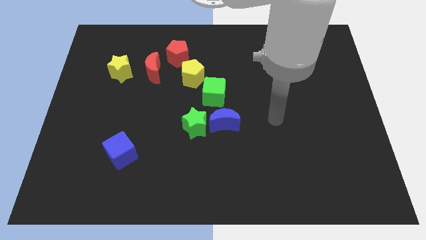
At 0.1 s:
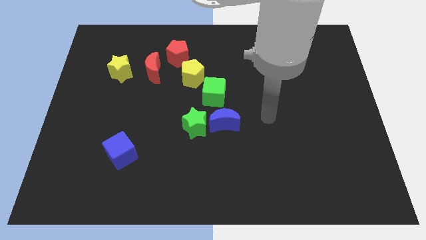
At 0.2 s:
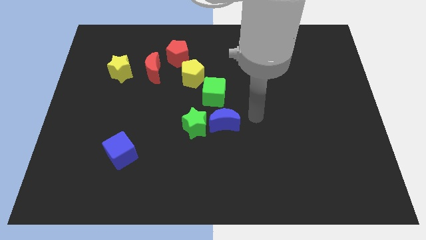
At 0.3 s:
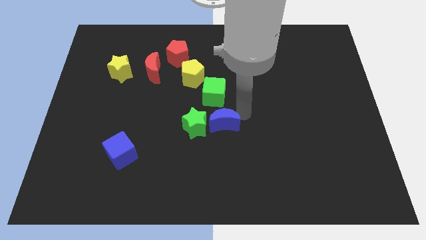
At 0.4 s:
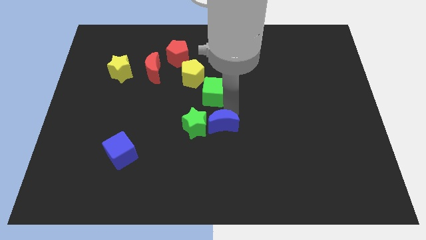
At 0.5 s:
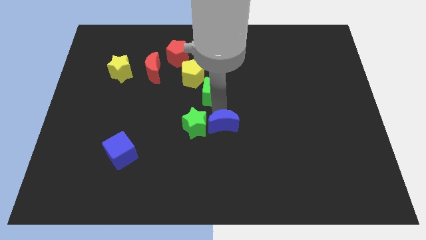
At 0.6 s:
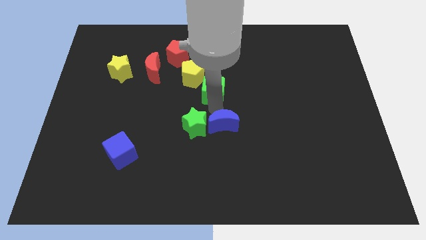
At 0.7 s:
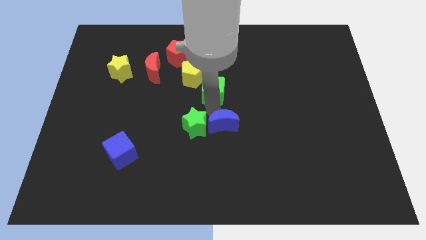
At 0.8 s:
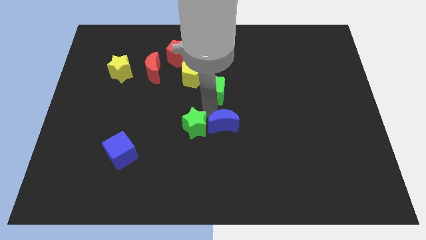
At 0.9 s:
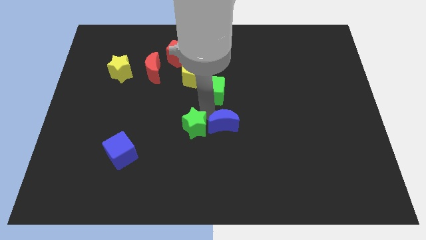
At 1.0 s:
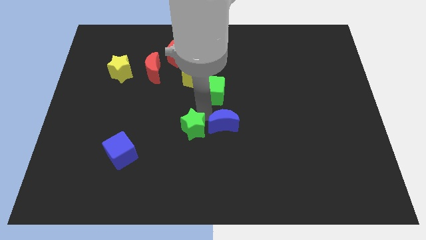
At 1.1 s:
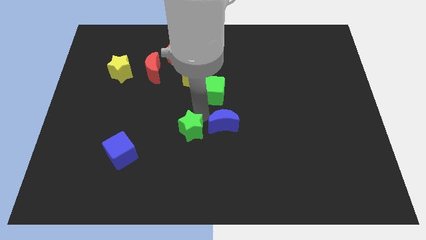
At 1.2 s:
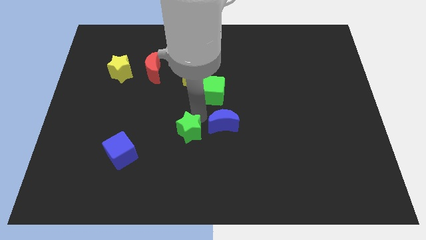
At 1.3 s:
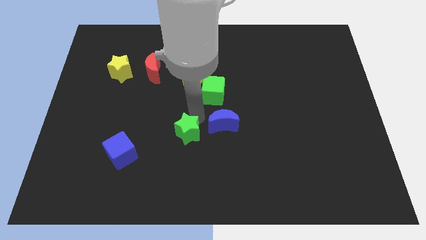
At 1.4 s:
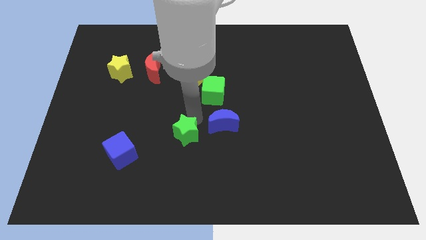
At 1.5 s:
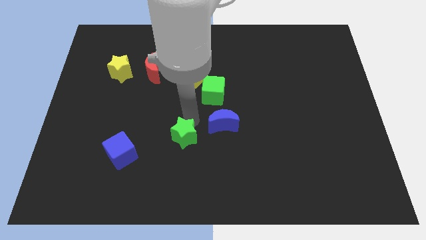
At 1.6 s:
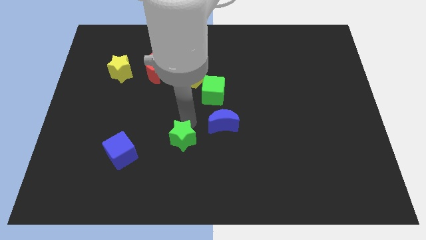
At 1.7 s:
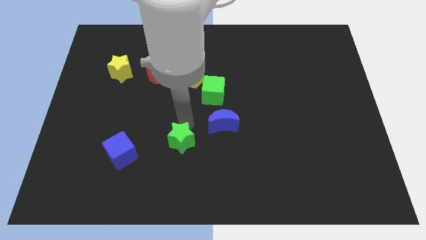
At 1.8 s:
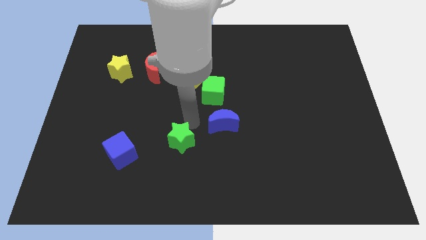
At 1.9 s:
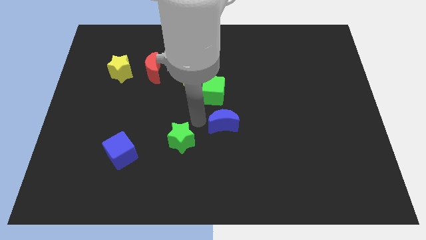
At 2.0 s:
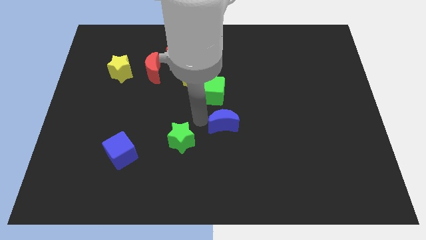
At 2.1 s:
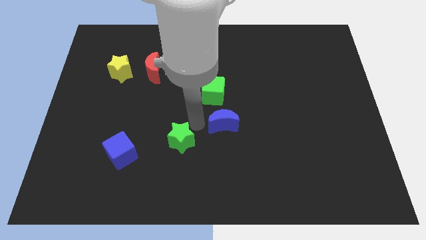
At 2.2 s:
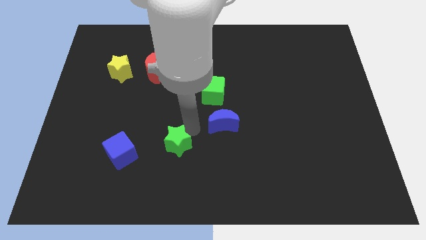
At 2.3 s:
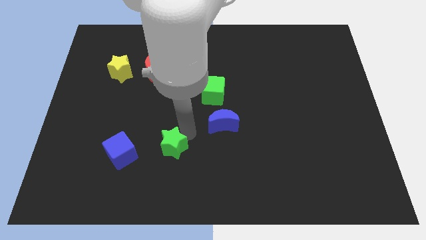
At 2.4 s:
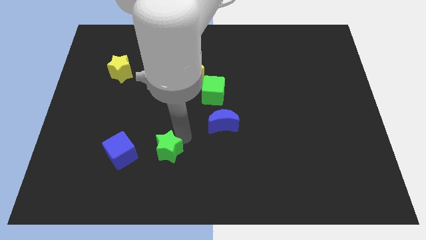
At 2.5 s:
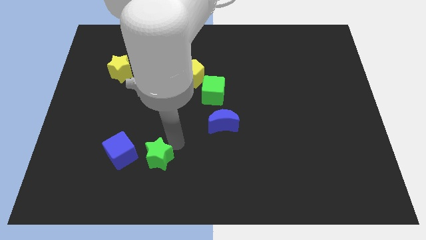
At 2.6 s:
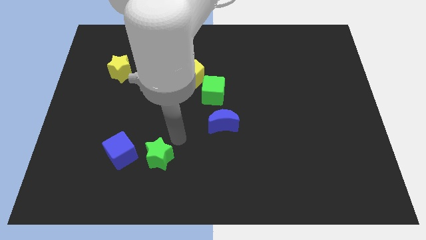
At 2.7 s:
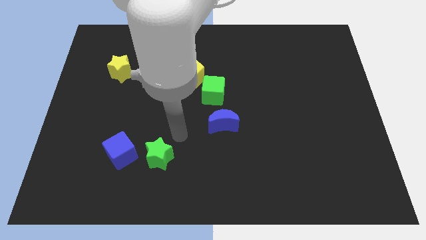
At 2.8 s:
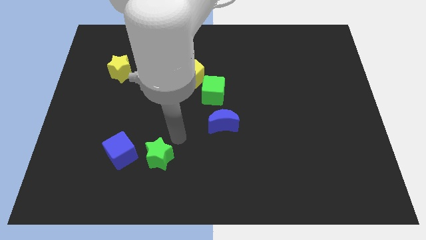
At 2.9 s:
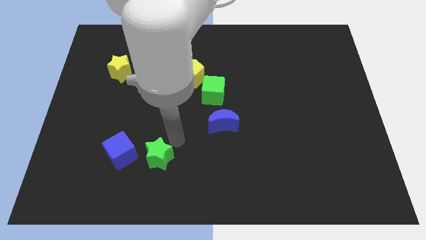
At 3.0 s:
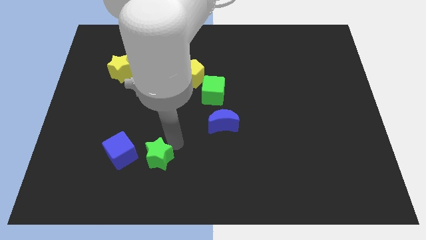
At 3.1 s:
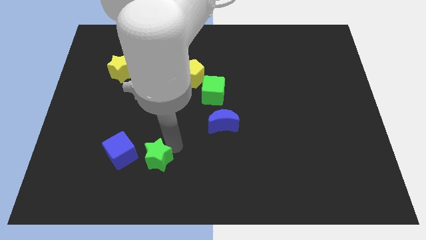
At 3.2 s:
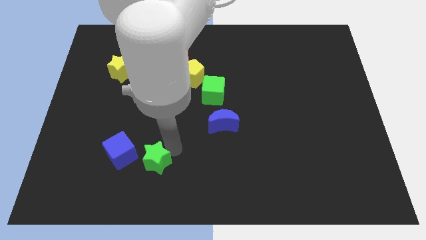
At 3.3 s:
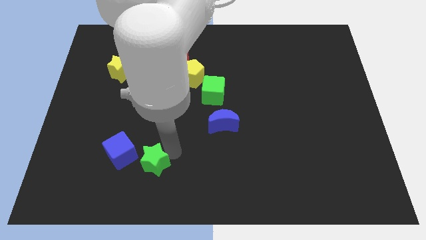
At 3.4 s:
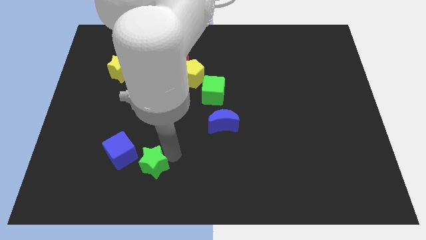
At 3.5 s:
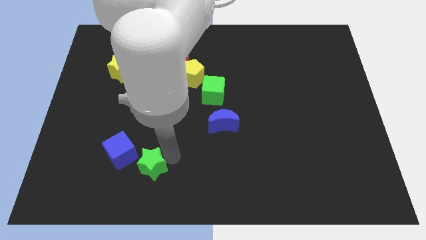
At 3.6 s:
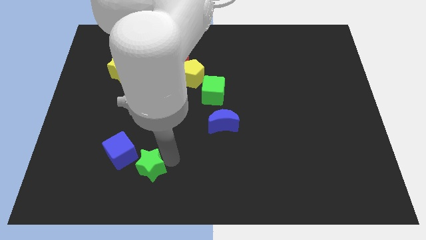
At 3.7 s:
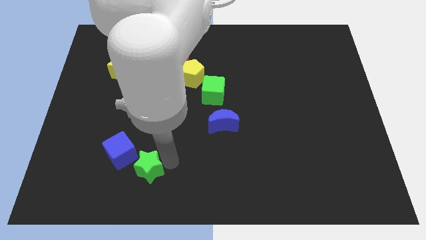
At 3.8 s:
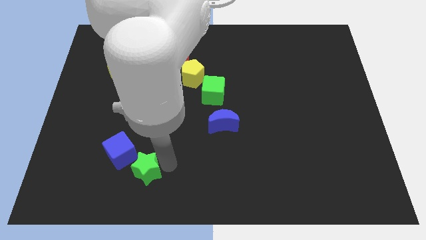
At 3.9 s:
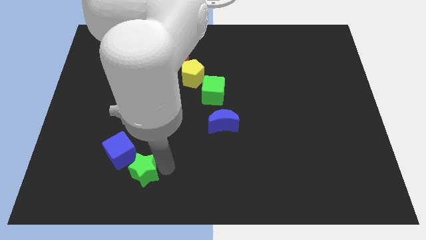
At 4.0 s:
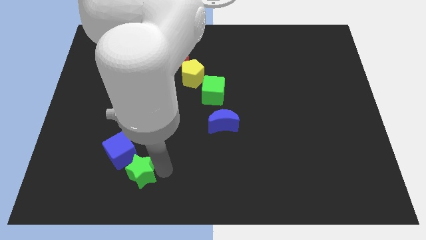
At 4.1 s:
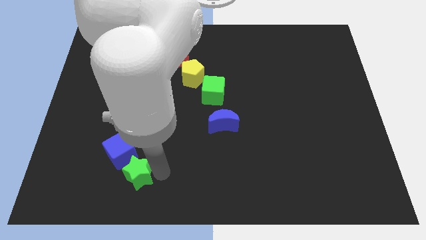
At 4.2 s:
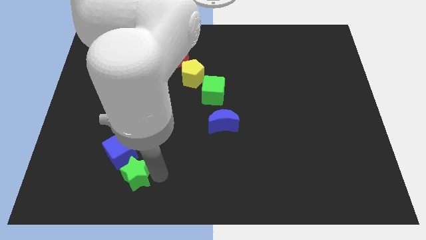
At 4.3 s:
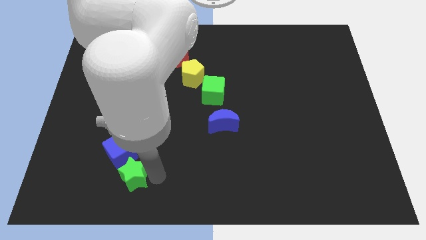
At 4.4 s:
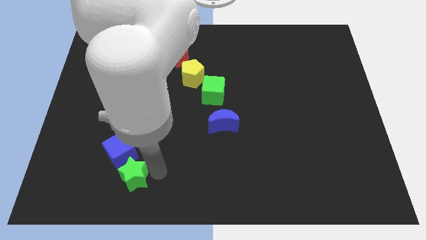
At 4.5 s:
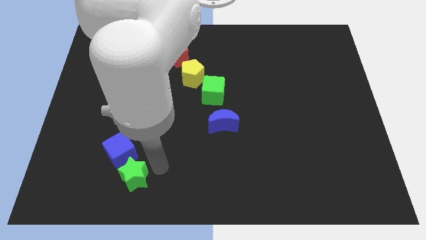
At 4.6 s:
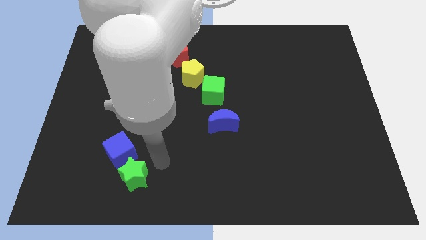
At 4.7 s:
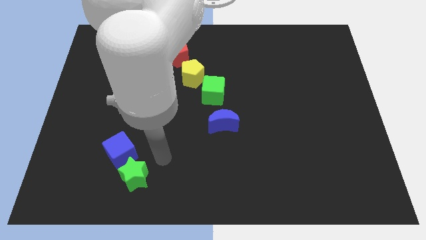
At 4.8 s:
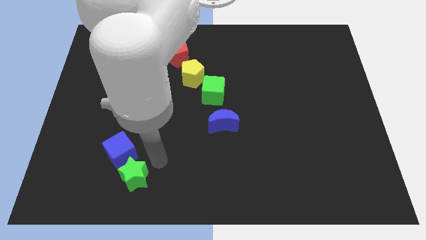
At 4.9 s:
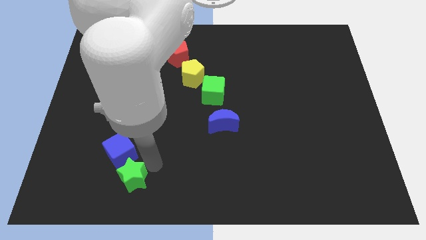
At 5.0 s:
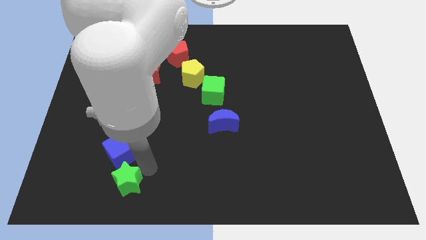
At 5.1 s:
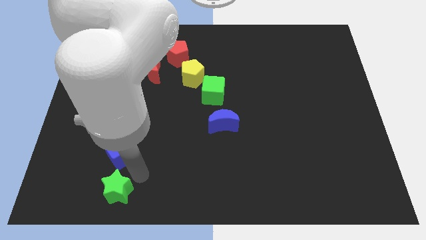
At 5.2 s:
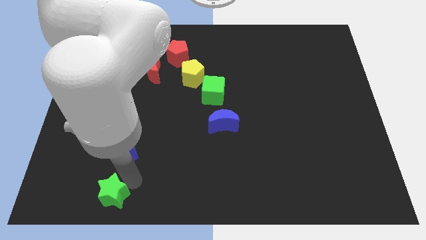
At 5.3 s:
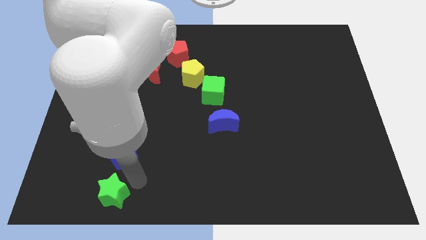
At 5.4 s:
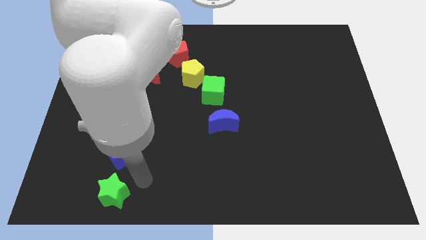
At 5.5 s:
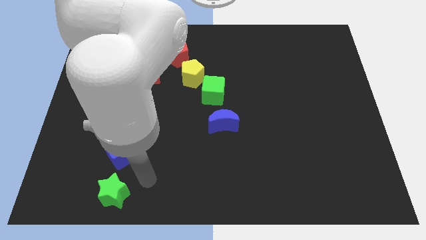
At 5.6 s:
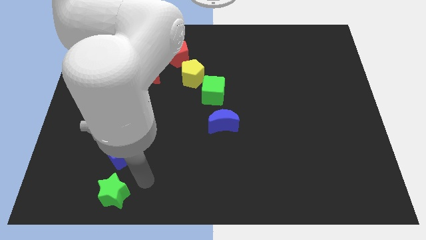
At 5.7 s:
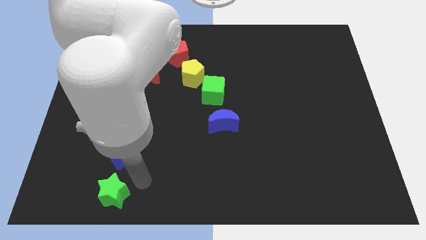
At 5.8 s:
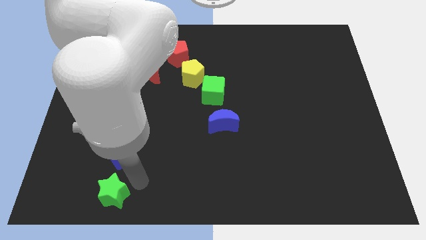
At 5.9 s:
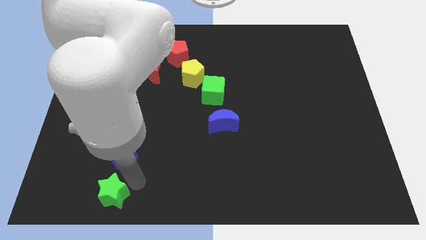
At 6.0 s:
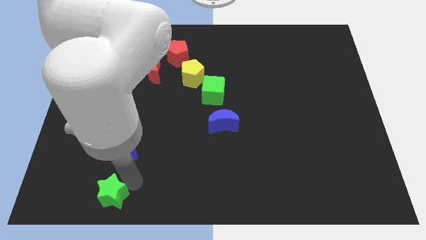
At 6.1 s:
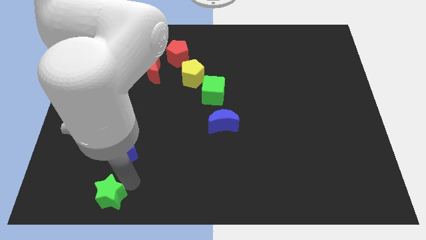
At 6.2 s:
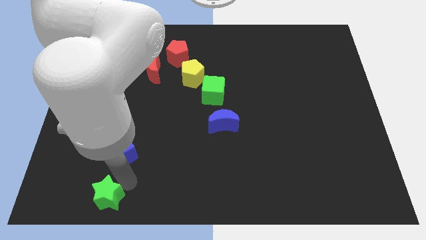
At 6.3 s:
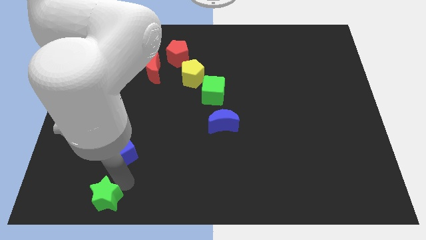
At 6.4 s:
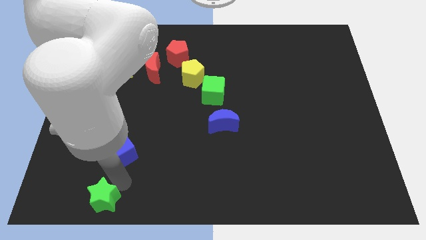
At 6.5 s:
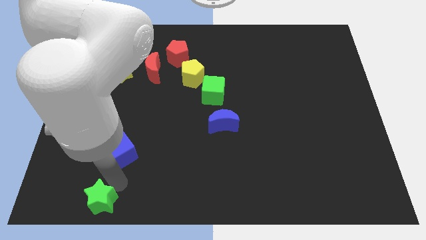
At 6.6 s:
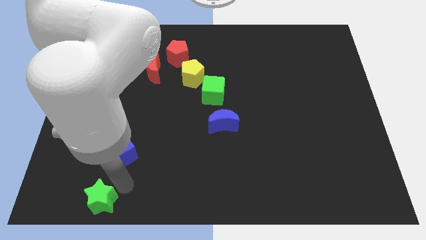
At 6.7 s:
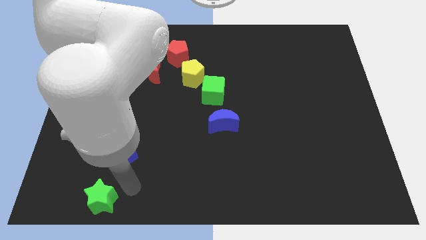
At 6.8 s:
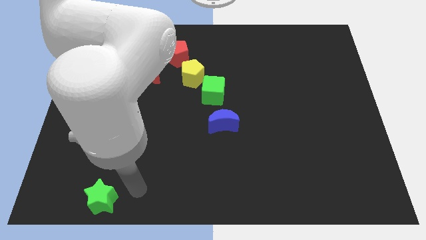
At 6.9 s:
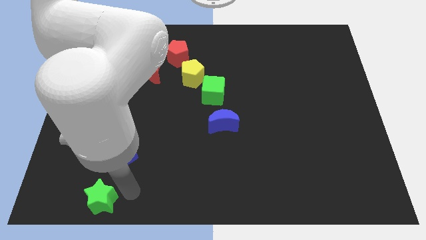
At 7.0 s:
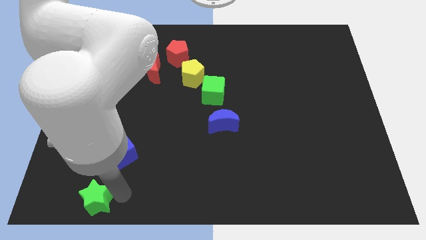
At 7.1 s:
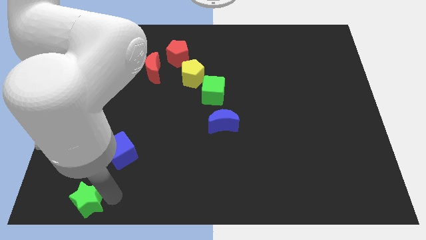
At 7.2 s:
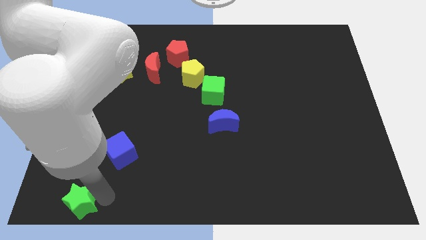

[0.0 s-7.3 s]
push the green star to the lower left corner
